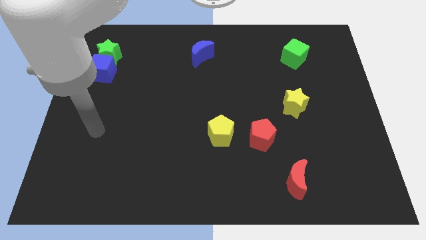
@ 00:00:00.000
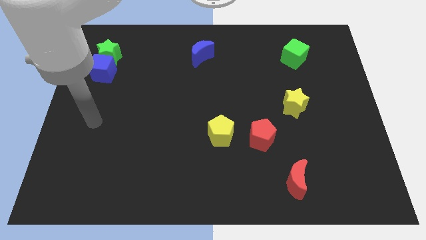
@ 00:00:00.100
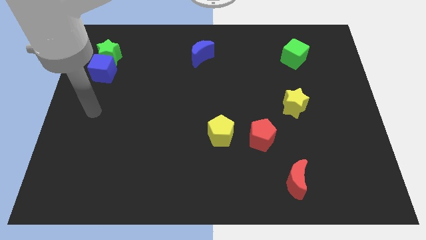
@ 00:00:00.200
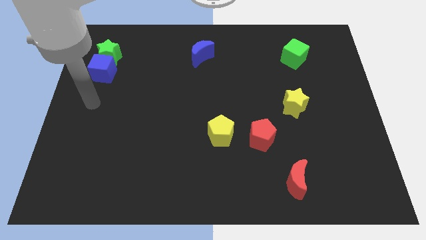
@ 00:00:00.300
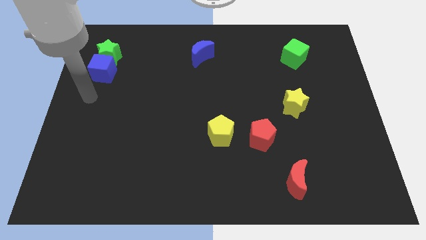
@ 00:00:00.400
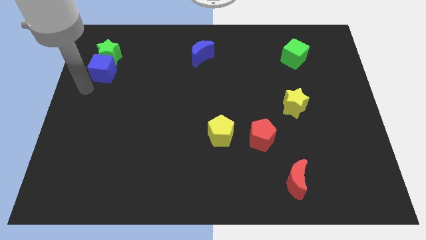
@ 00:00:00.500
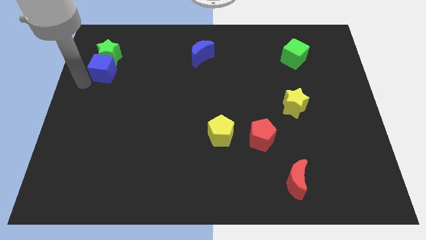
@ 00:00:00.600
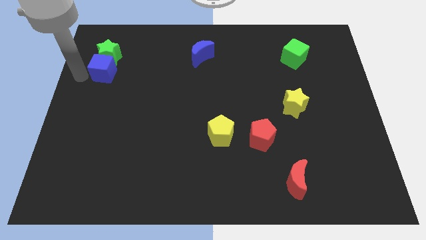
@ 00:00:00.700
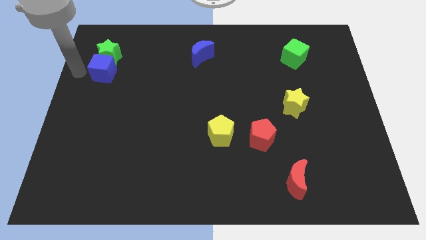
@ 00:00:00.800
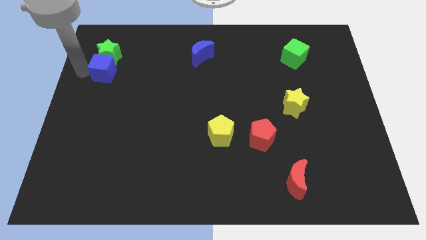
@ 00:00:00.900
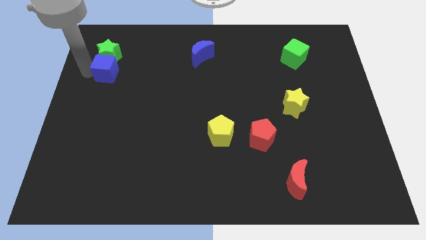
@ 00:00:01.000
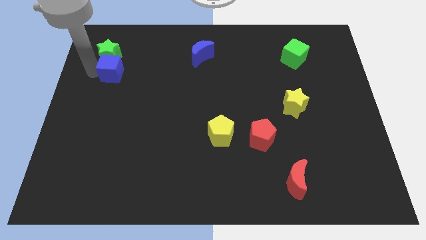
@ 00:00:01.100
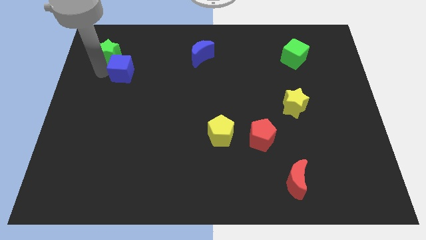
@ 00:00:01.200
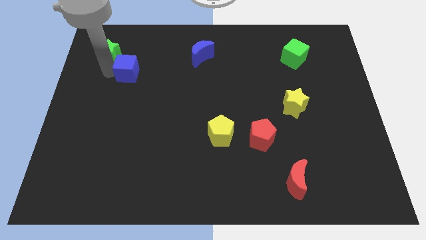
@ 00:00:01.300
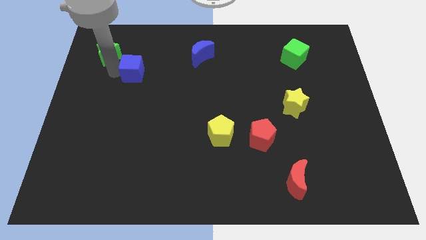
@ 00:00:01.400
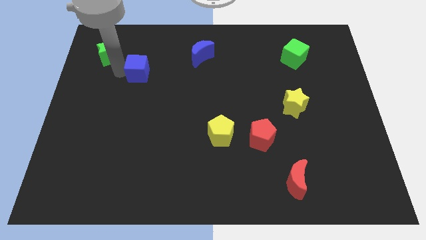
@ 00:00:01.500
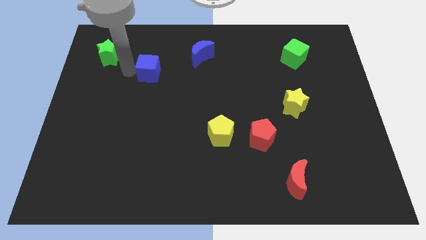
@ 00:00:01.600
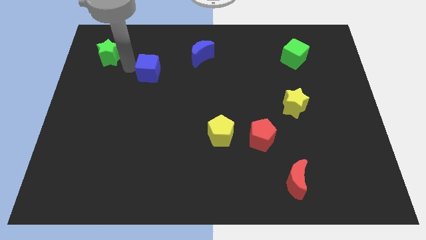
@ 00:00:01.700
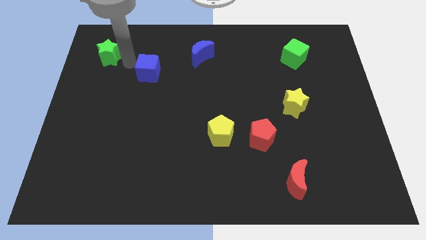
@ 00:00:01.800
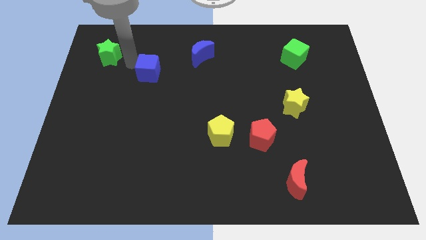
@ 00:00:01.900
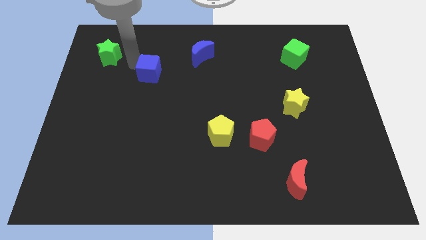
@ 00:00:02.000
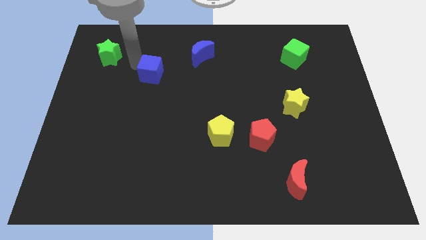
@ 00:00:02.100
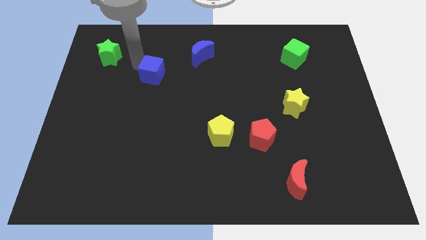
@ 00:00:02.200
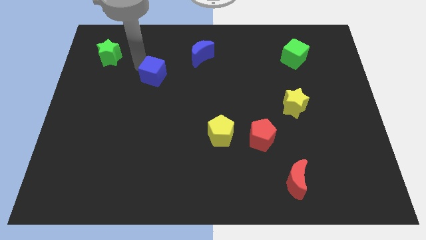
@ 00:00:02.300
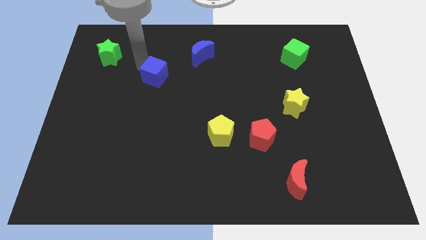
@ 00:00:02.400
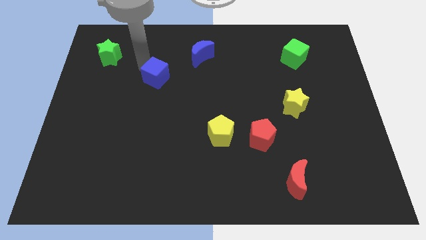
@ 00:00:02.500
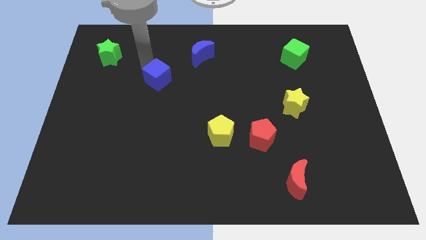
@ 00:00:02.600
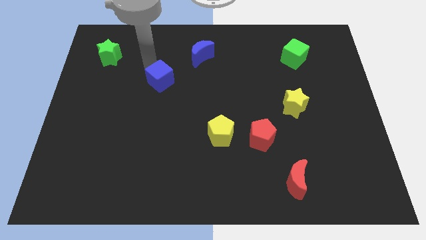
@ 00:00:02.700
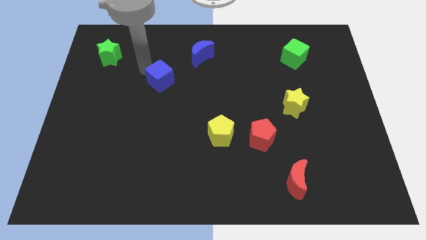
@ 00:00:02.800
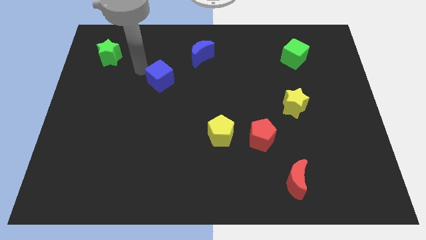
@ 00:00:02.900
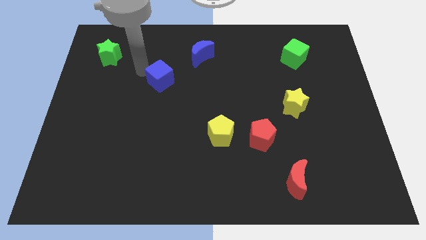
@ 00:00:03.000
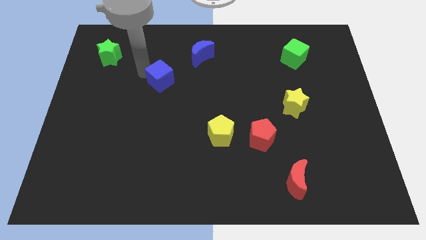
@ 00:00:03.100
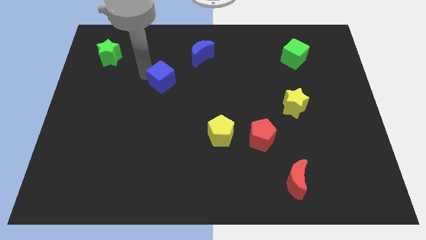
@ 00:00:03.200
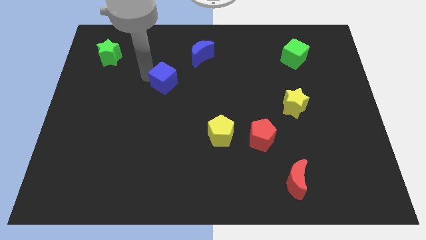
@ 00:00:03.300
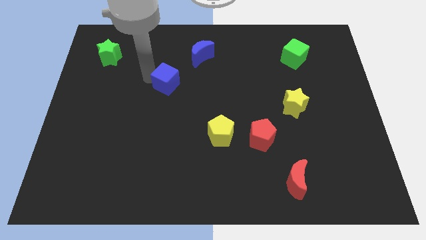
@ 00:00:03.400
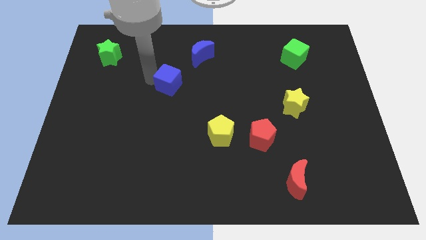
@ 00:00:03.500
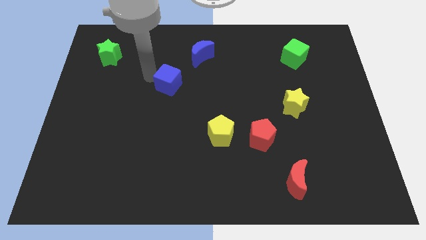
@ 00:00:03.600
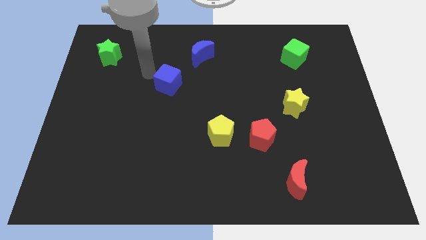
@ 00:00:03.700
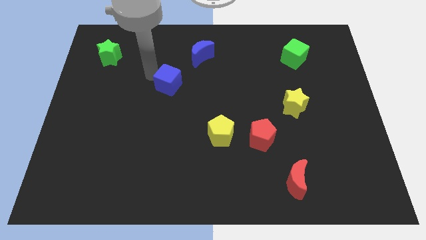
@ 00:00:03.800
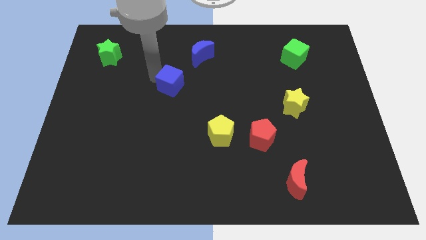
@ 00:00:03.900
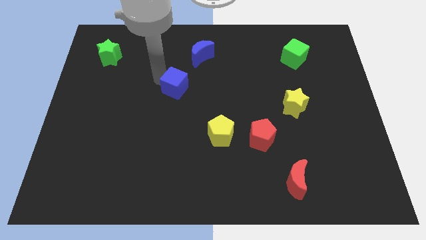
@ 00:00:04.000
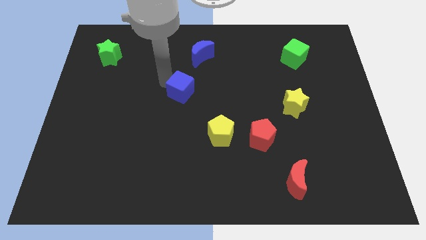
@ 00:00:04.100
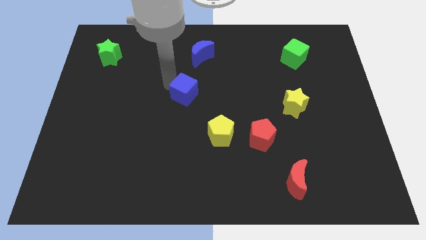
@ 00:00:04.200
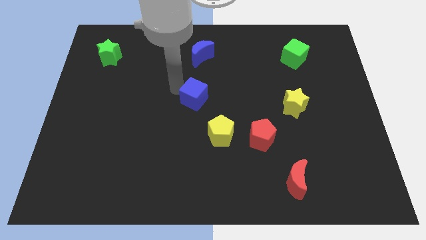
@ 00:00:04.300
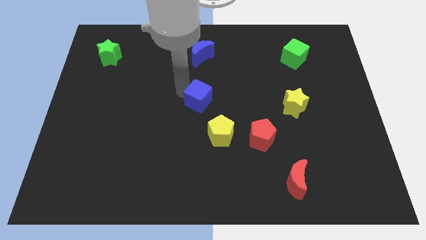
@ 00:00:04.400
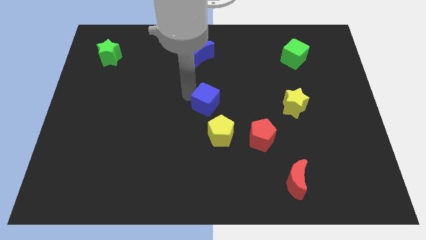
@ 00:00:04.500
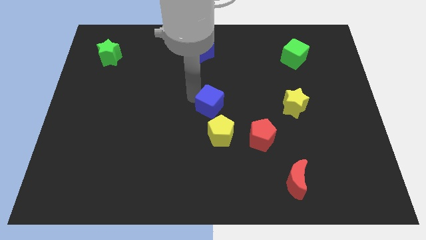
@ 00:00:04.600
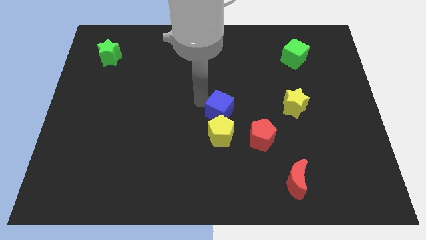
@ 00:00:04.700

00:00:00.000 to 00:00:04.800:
slide the blue cube diagonally up and to the right of the yellow pentagon

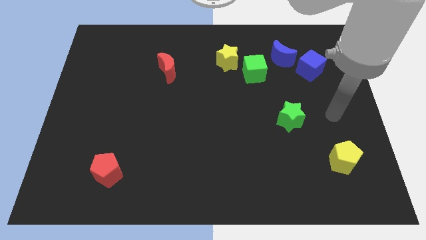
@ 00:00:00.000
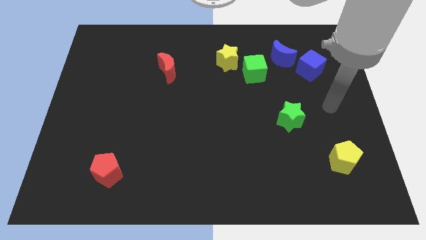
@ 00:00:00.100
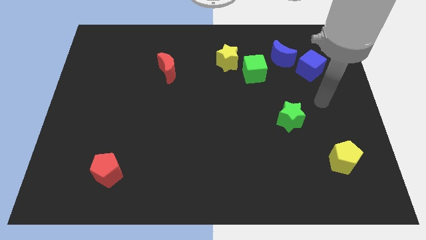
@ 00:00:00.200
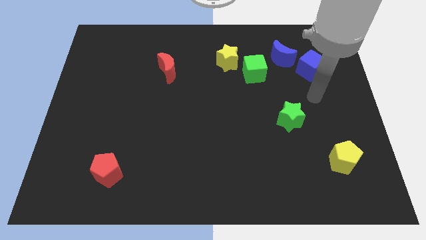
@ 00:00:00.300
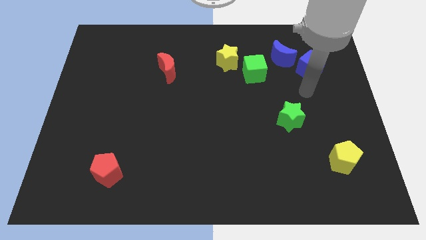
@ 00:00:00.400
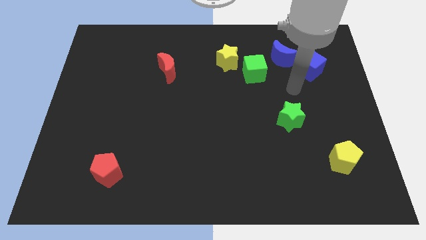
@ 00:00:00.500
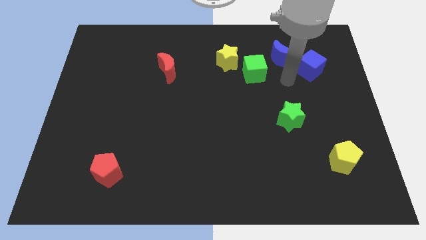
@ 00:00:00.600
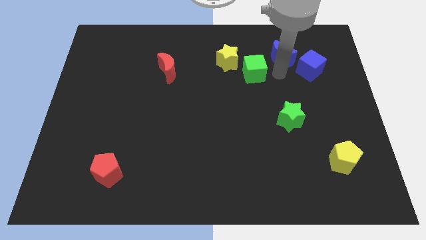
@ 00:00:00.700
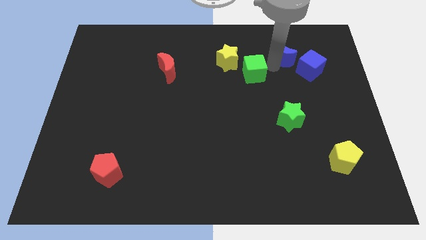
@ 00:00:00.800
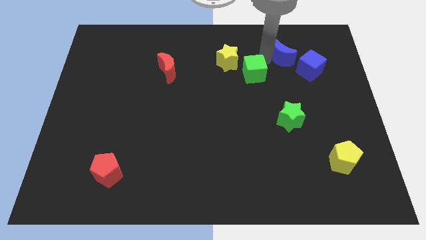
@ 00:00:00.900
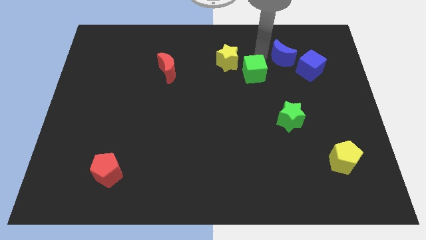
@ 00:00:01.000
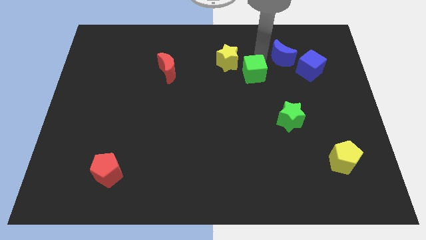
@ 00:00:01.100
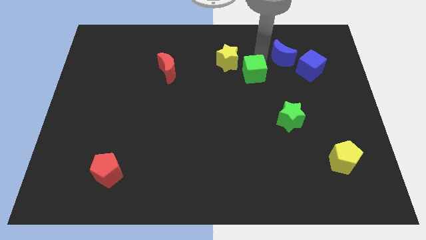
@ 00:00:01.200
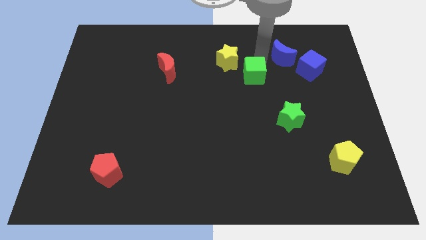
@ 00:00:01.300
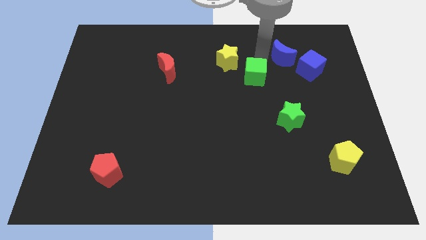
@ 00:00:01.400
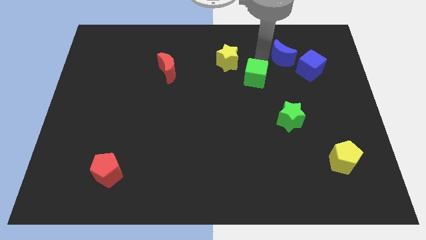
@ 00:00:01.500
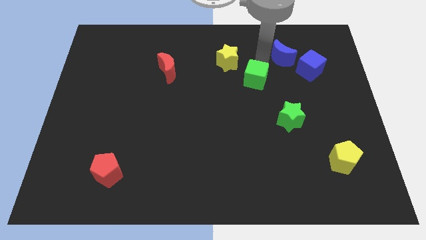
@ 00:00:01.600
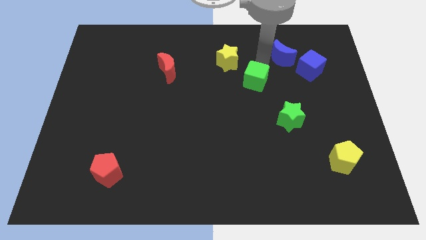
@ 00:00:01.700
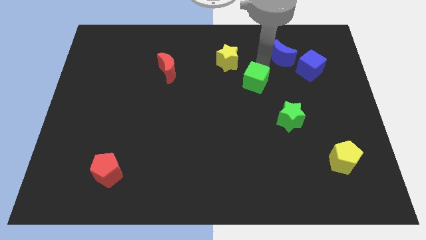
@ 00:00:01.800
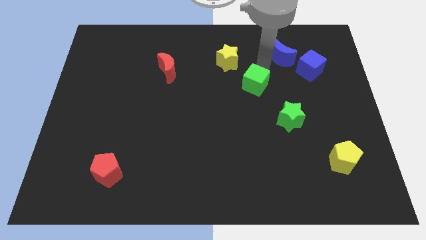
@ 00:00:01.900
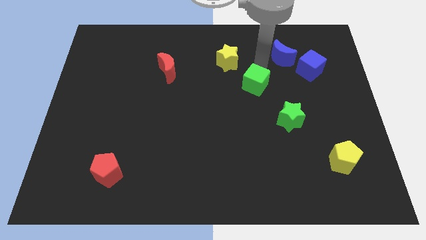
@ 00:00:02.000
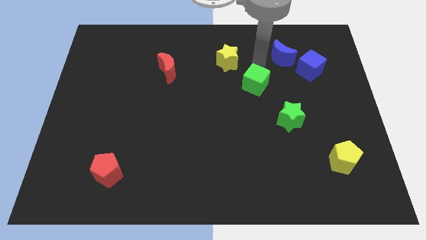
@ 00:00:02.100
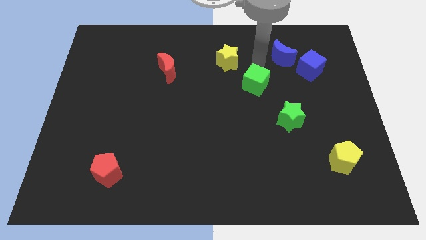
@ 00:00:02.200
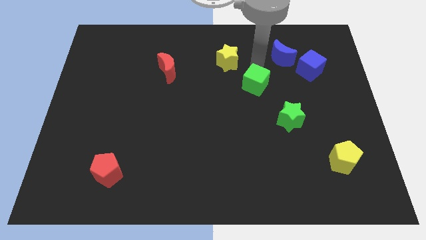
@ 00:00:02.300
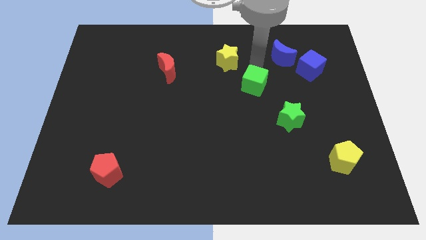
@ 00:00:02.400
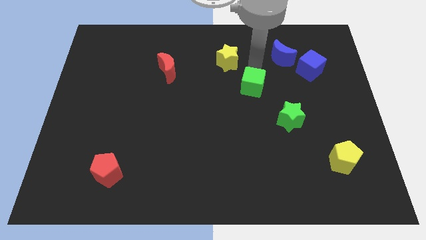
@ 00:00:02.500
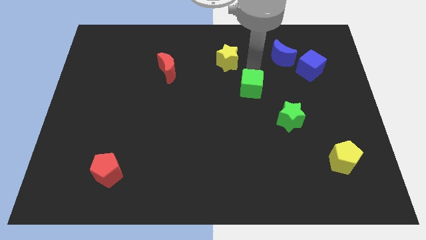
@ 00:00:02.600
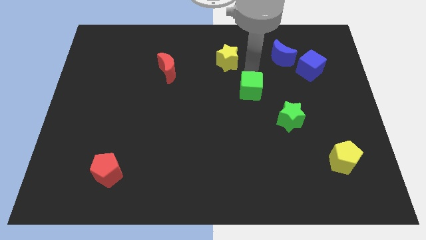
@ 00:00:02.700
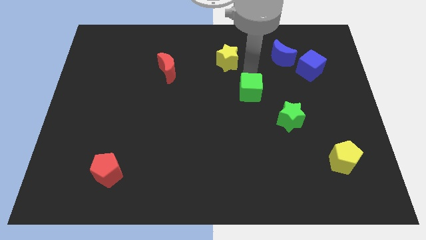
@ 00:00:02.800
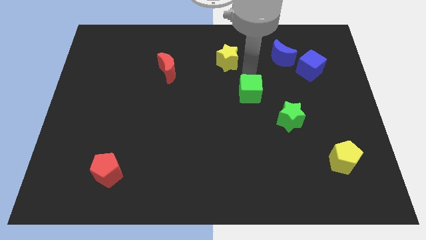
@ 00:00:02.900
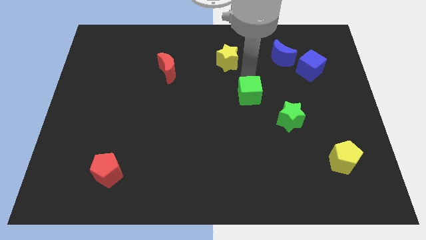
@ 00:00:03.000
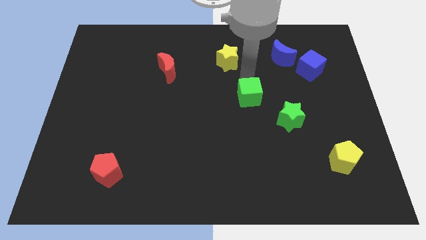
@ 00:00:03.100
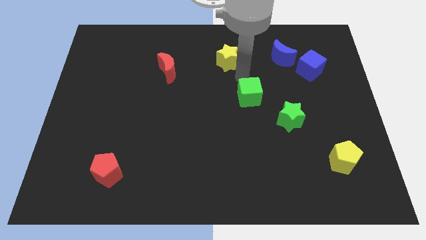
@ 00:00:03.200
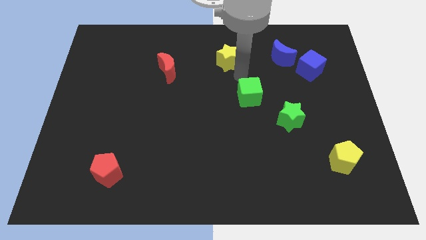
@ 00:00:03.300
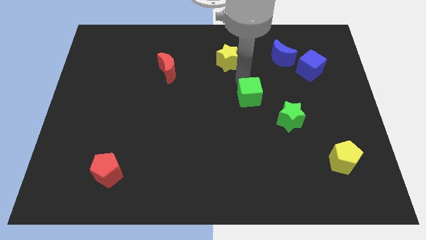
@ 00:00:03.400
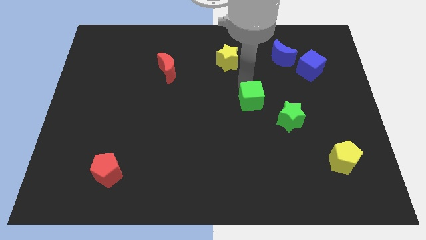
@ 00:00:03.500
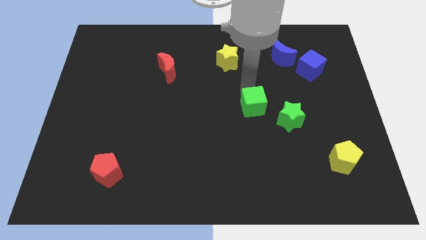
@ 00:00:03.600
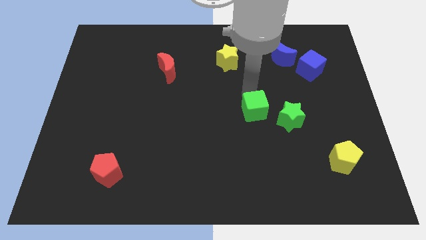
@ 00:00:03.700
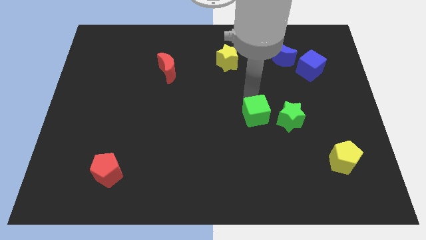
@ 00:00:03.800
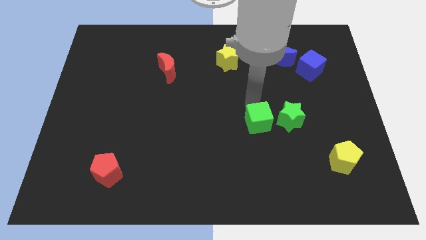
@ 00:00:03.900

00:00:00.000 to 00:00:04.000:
slide the green cube to the bottom left side of the green star
